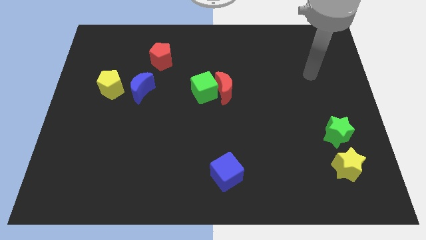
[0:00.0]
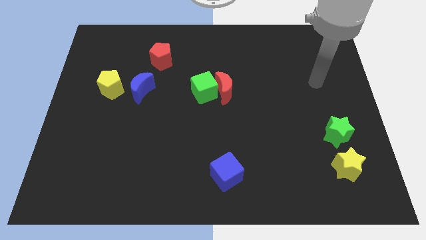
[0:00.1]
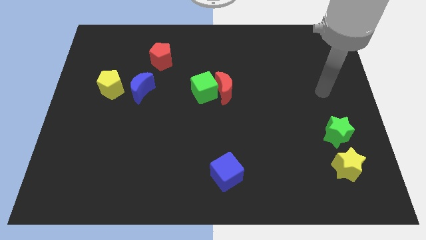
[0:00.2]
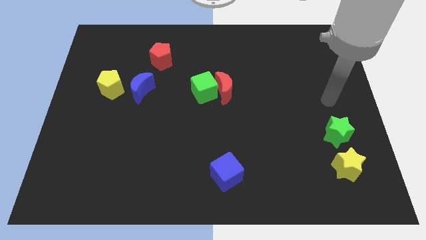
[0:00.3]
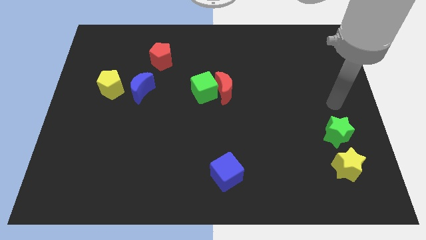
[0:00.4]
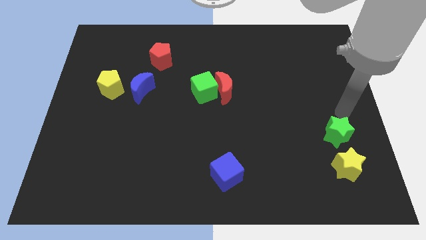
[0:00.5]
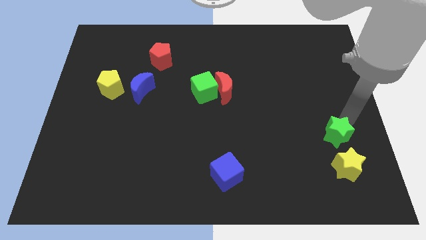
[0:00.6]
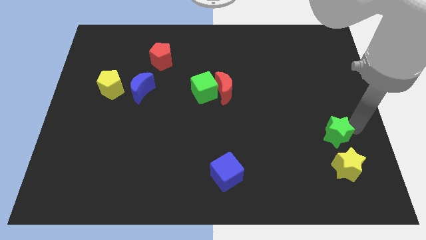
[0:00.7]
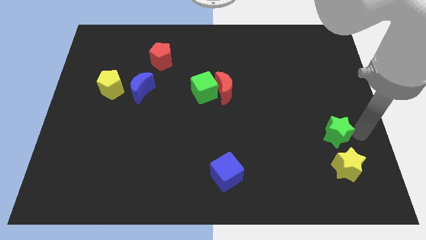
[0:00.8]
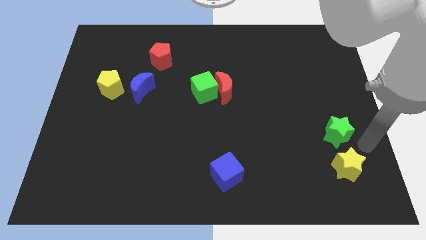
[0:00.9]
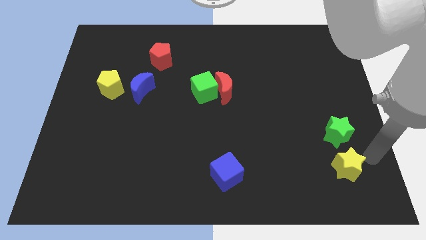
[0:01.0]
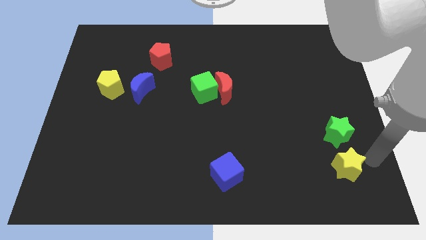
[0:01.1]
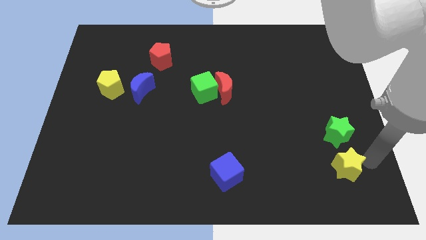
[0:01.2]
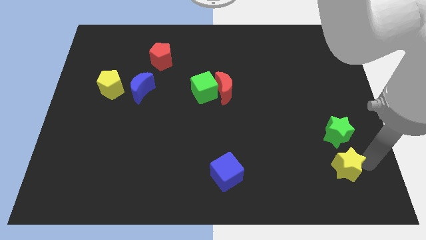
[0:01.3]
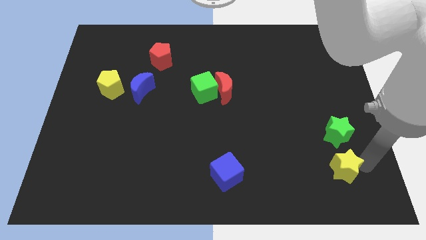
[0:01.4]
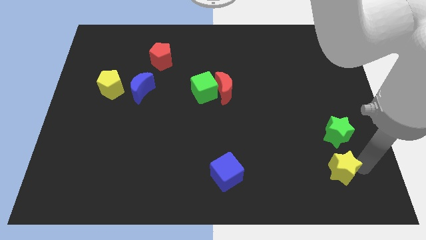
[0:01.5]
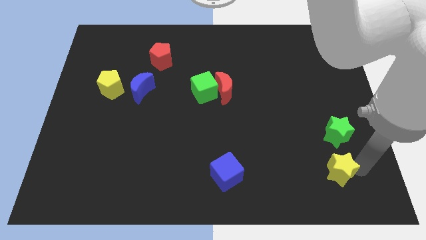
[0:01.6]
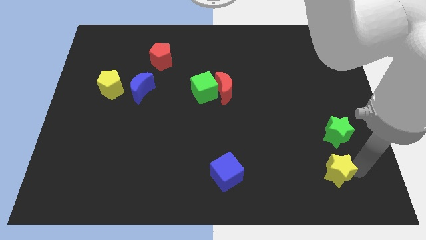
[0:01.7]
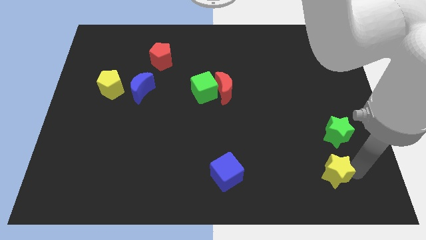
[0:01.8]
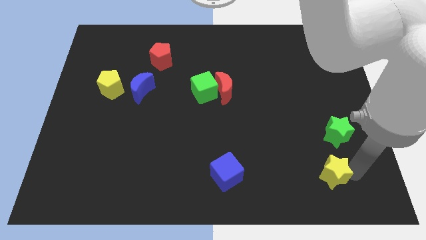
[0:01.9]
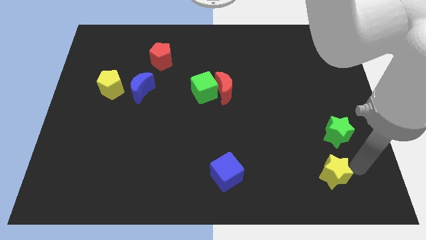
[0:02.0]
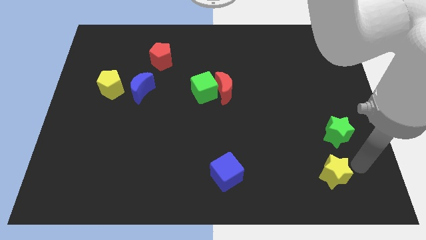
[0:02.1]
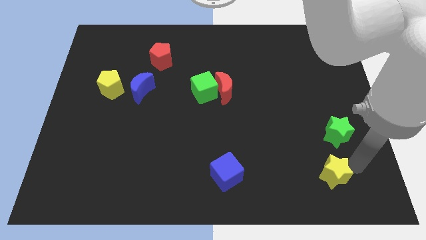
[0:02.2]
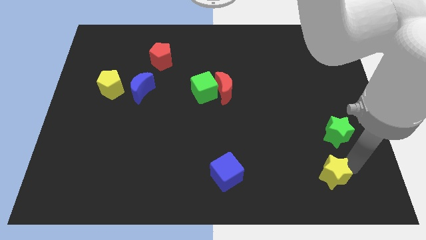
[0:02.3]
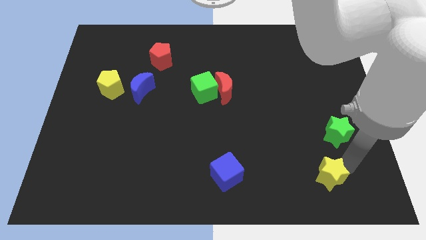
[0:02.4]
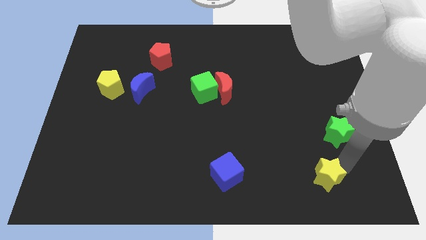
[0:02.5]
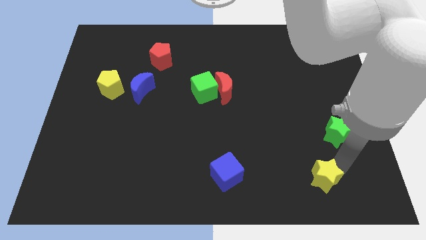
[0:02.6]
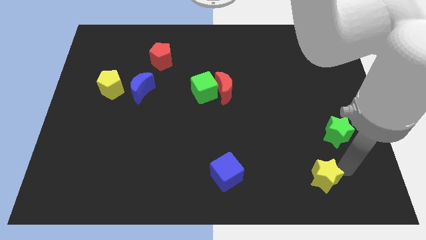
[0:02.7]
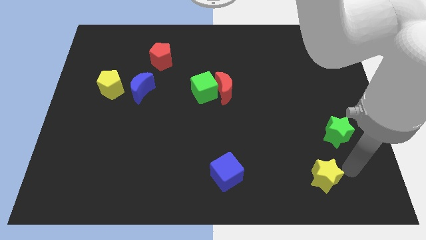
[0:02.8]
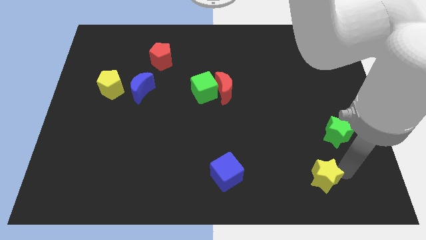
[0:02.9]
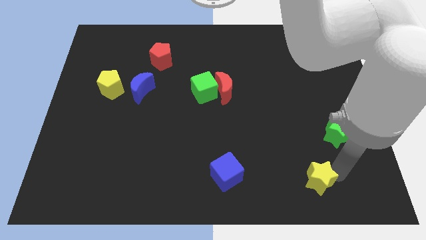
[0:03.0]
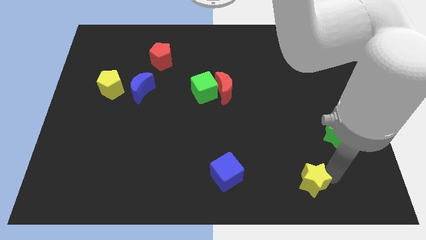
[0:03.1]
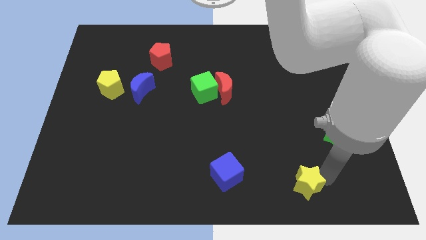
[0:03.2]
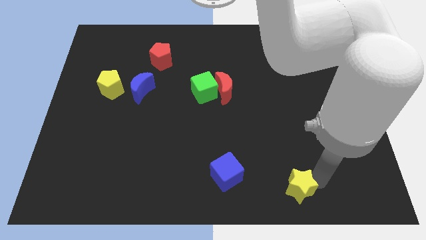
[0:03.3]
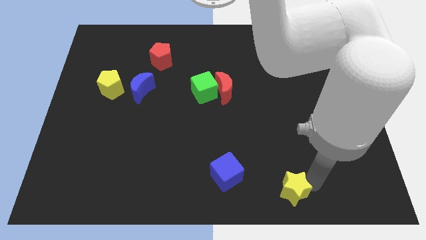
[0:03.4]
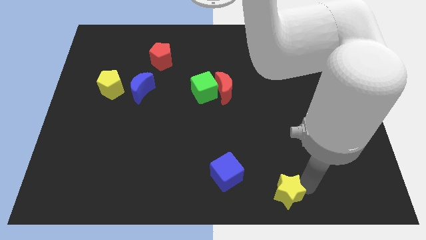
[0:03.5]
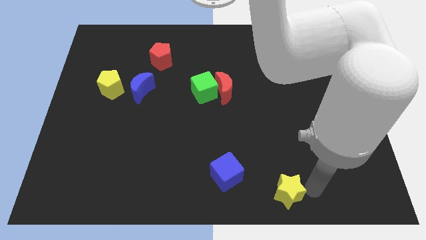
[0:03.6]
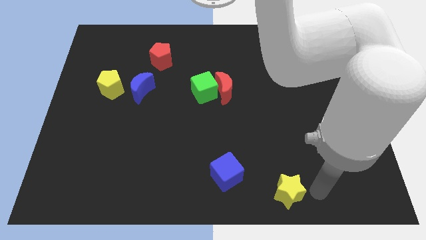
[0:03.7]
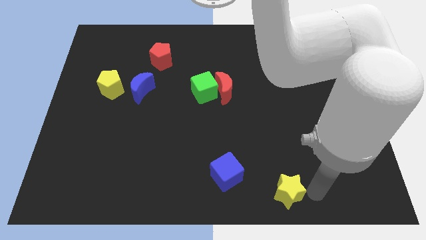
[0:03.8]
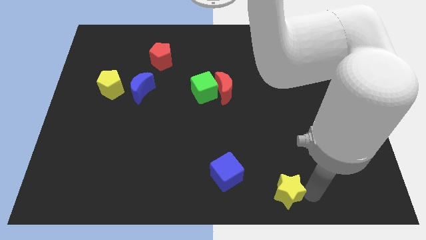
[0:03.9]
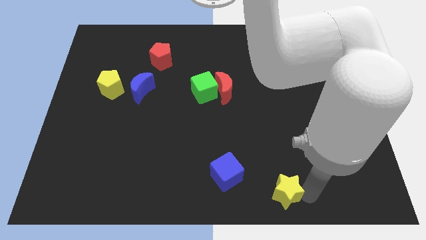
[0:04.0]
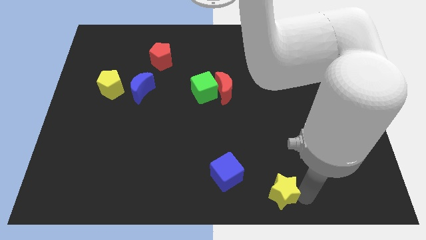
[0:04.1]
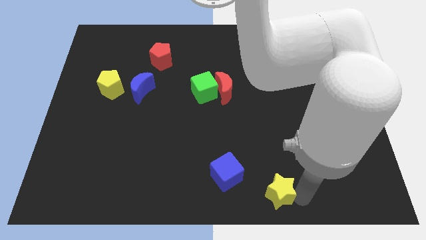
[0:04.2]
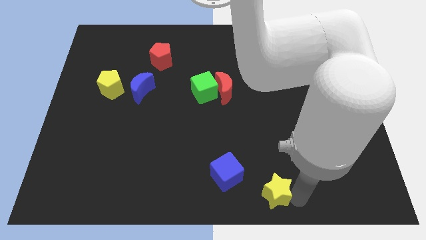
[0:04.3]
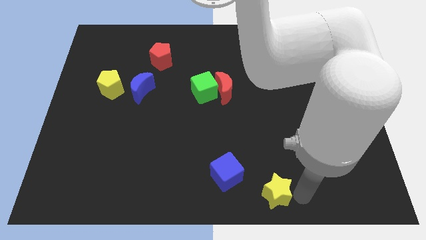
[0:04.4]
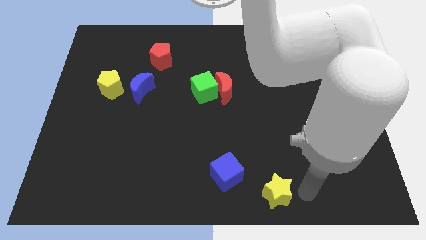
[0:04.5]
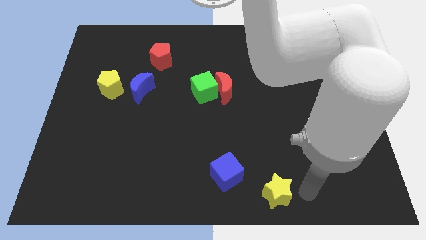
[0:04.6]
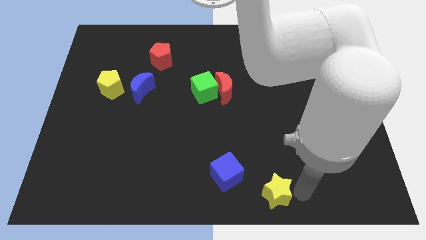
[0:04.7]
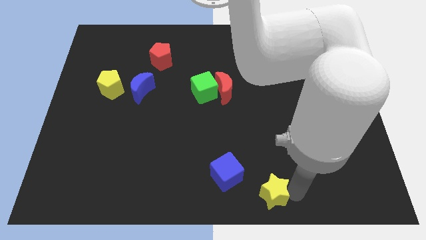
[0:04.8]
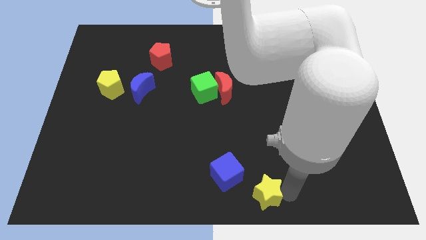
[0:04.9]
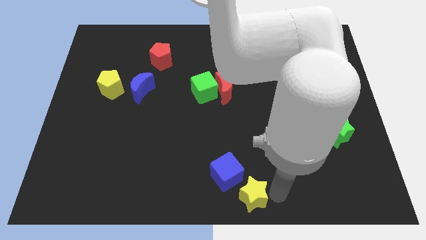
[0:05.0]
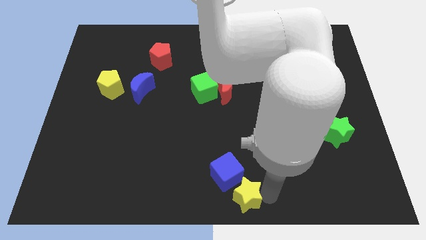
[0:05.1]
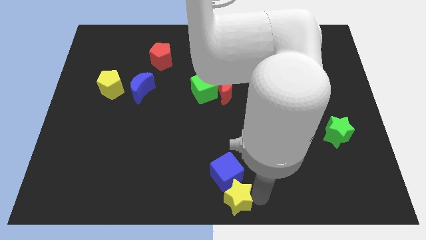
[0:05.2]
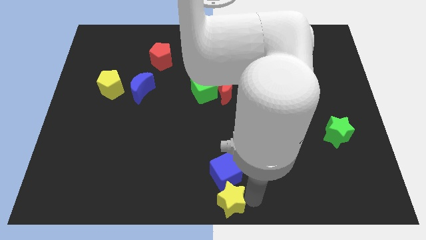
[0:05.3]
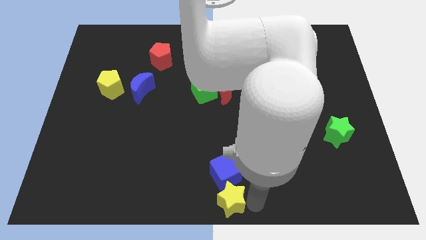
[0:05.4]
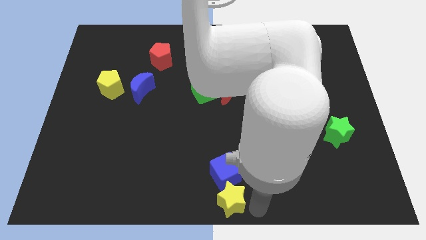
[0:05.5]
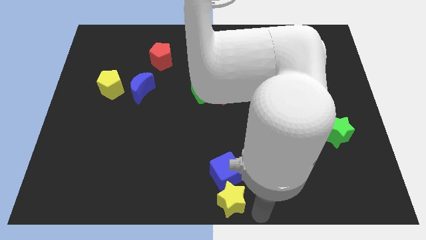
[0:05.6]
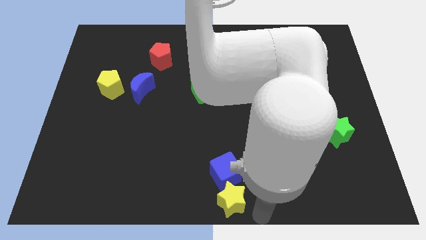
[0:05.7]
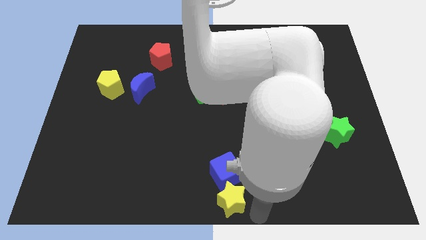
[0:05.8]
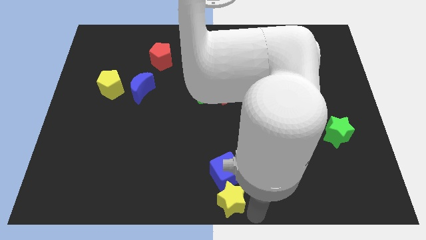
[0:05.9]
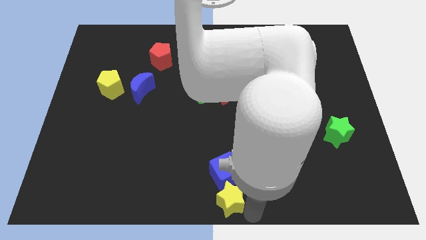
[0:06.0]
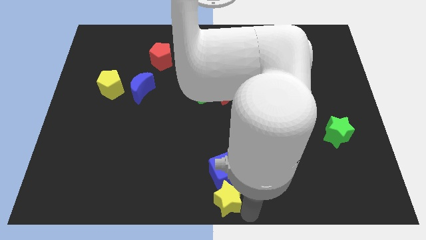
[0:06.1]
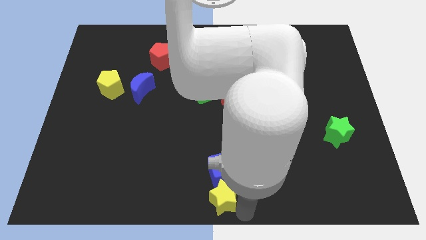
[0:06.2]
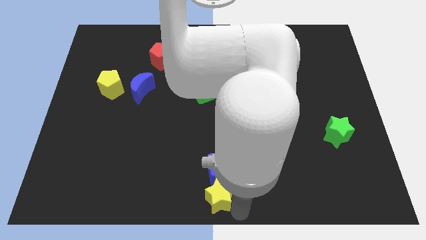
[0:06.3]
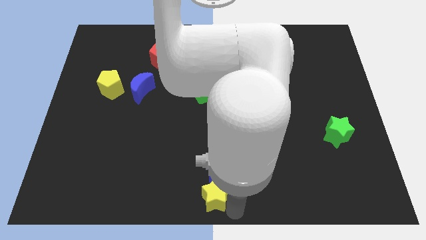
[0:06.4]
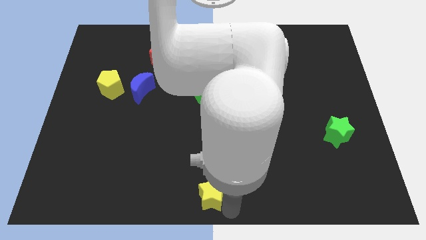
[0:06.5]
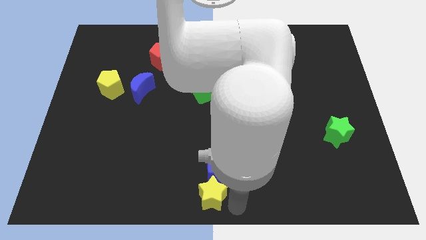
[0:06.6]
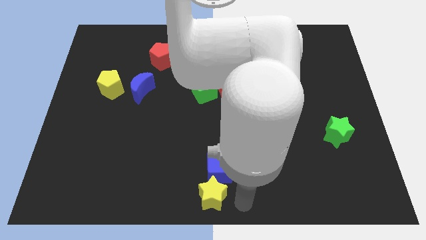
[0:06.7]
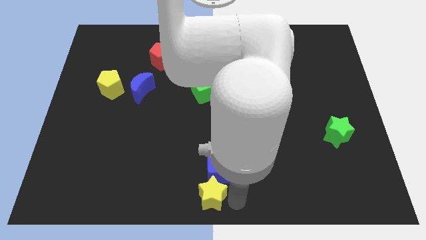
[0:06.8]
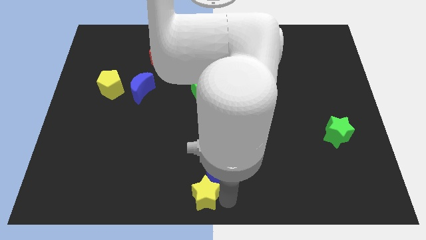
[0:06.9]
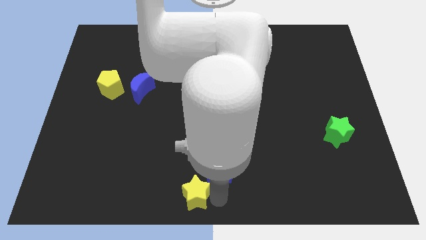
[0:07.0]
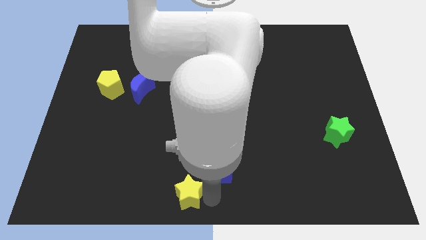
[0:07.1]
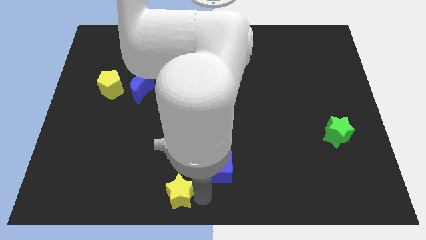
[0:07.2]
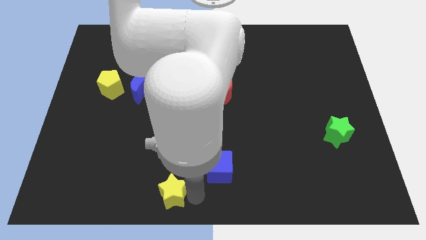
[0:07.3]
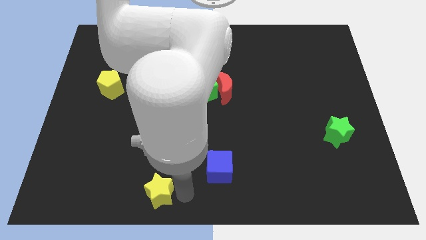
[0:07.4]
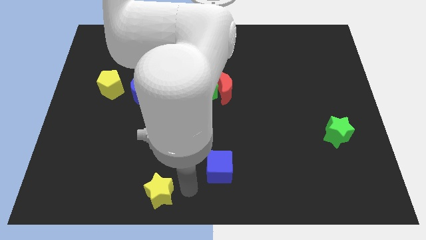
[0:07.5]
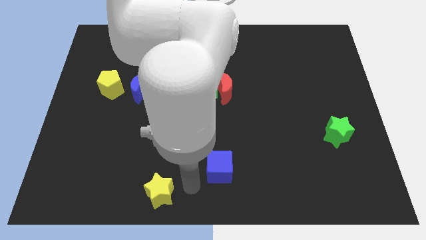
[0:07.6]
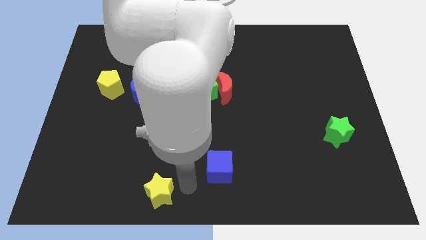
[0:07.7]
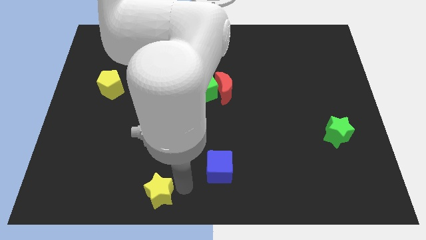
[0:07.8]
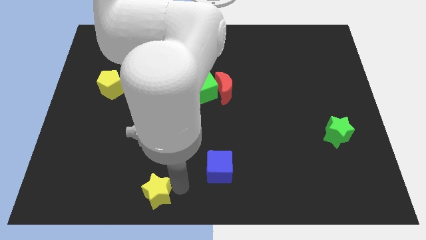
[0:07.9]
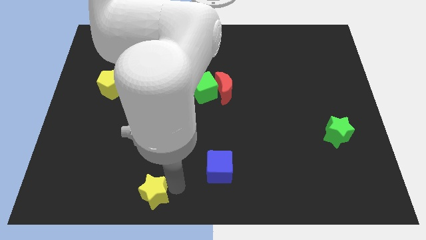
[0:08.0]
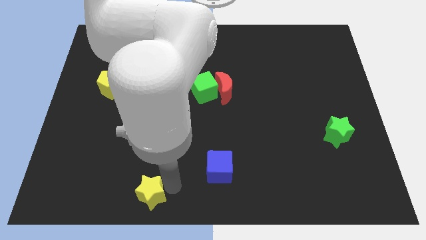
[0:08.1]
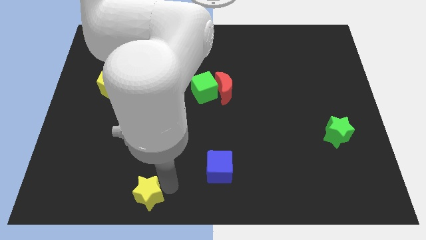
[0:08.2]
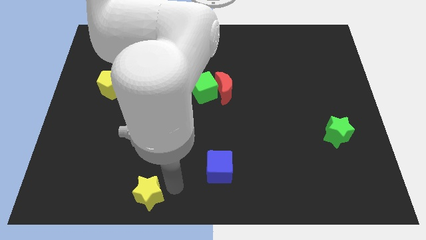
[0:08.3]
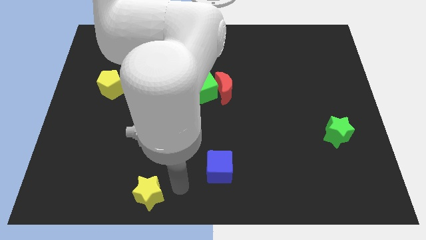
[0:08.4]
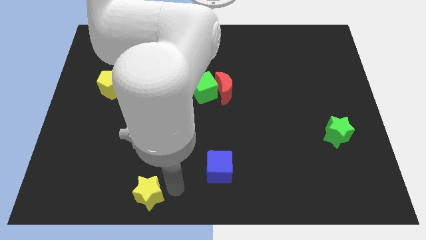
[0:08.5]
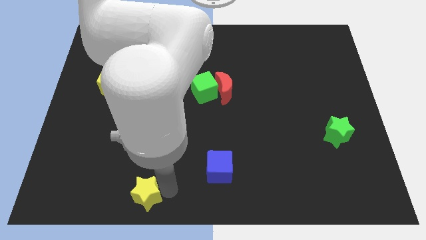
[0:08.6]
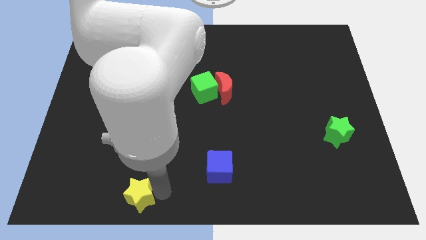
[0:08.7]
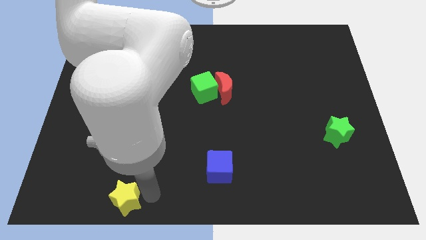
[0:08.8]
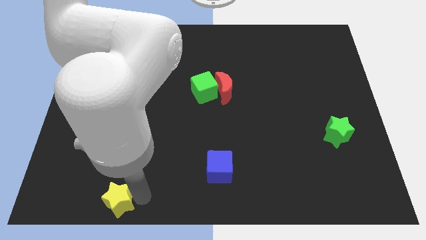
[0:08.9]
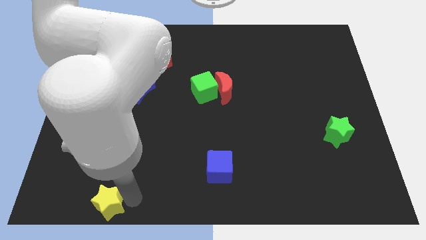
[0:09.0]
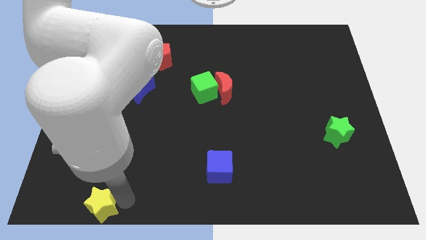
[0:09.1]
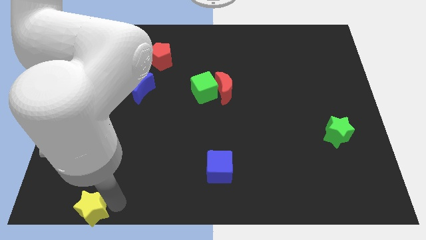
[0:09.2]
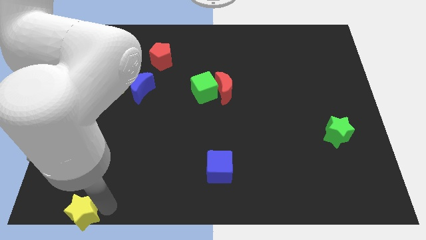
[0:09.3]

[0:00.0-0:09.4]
slide the yellow star to the bottom left corner
